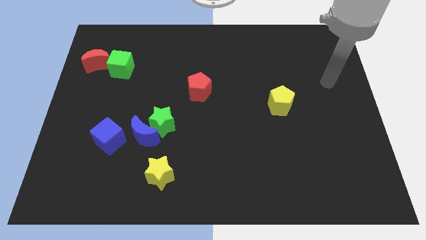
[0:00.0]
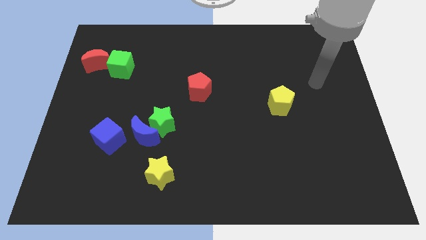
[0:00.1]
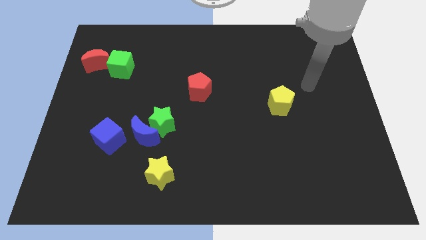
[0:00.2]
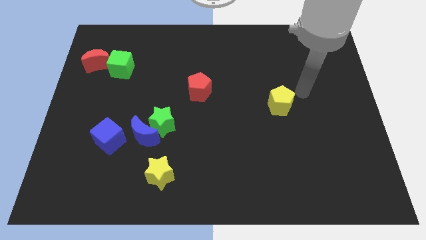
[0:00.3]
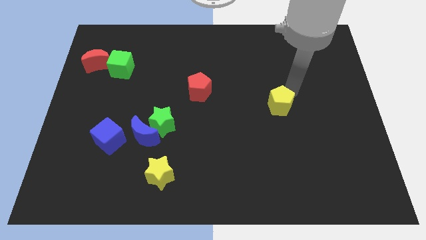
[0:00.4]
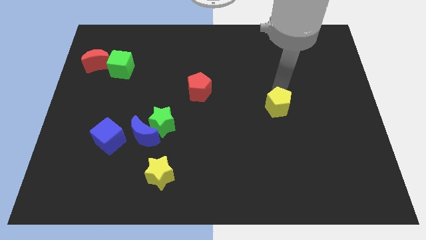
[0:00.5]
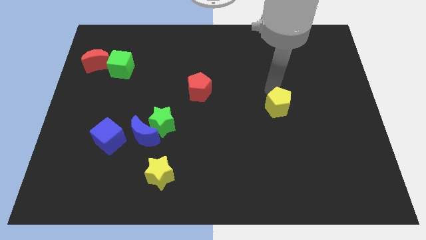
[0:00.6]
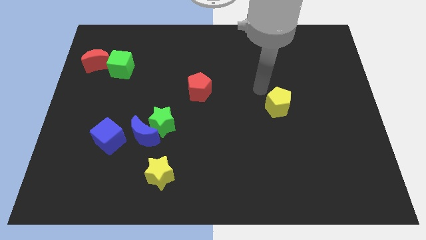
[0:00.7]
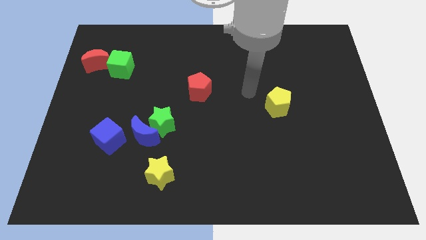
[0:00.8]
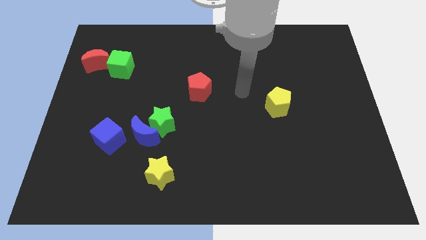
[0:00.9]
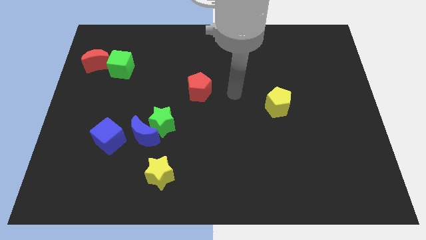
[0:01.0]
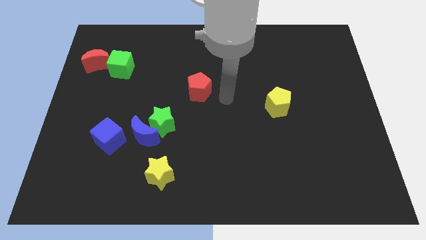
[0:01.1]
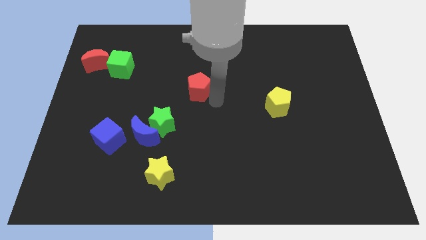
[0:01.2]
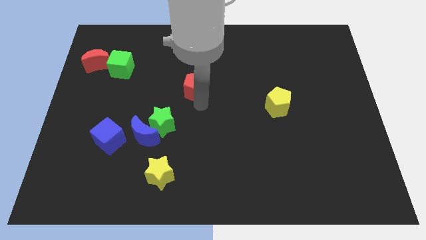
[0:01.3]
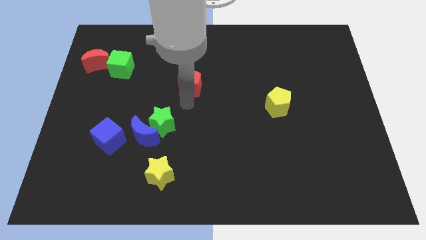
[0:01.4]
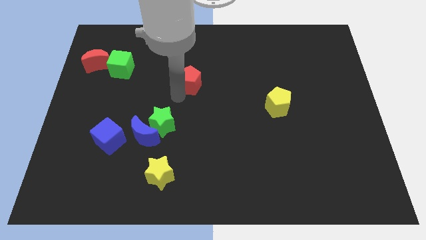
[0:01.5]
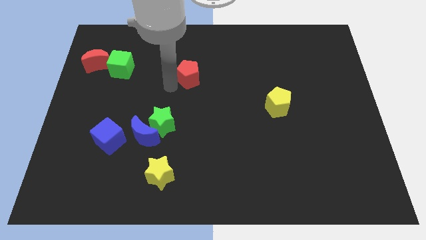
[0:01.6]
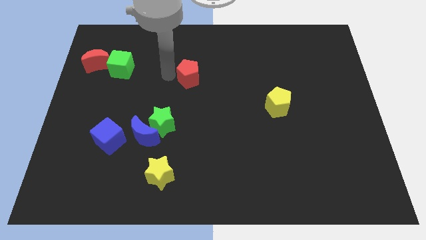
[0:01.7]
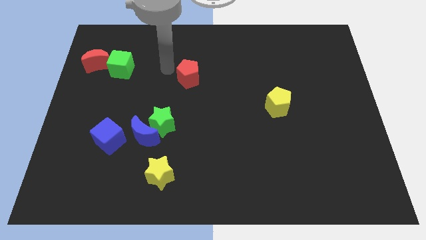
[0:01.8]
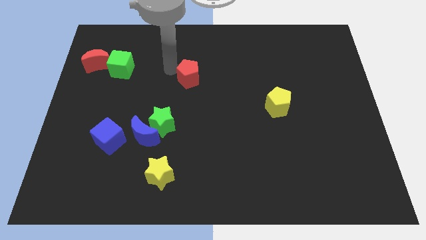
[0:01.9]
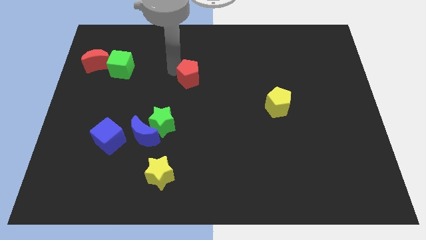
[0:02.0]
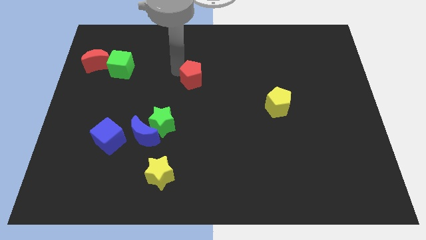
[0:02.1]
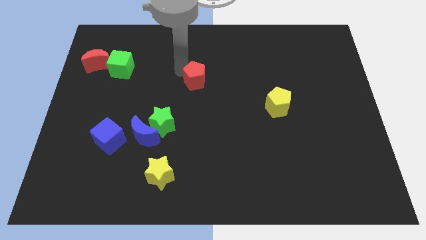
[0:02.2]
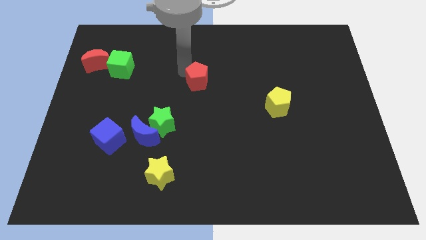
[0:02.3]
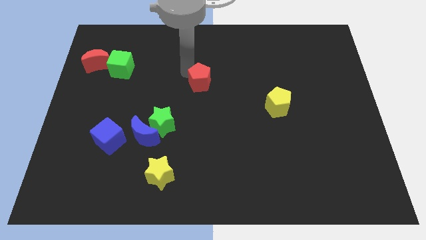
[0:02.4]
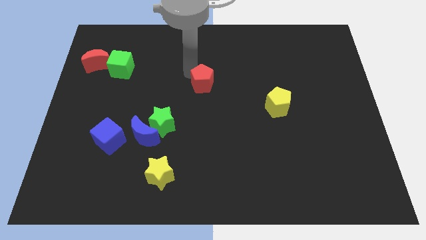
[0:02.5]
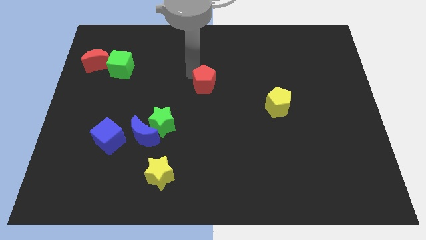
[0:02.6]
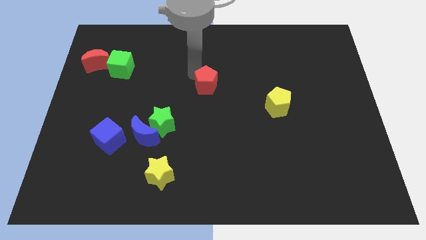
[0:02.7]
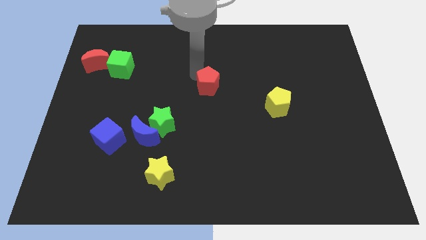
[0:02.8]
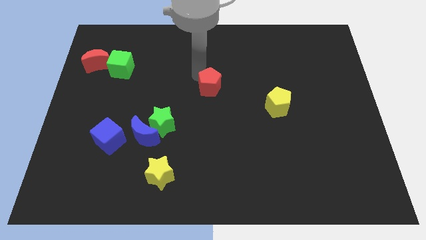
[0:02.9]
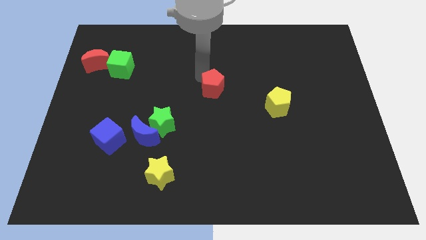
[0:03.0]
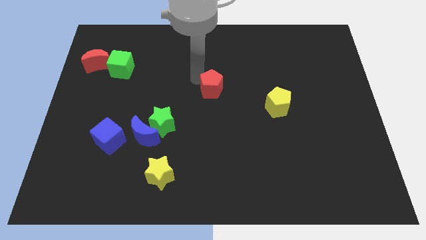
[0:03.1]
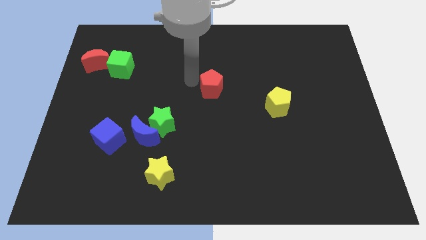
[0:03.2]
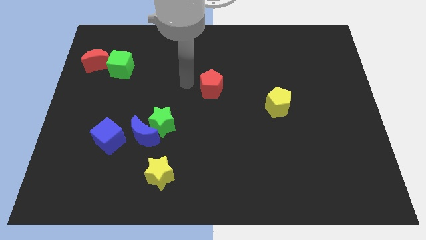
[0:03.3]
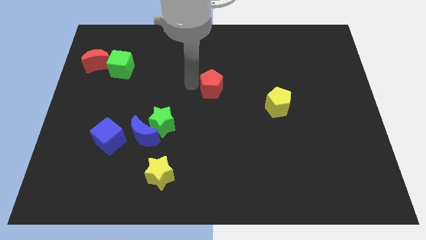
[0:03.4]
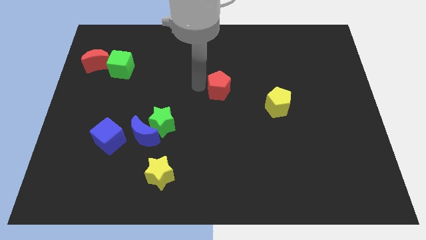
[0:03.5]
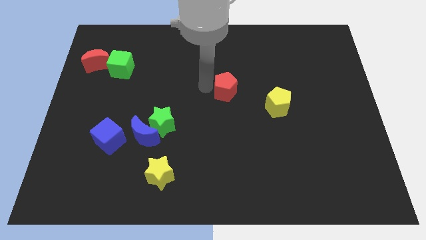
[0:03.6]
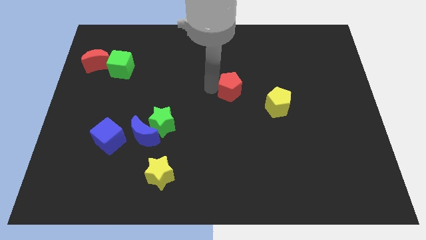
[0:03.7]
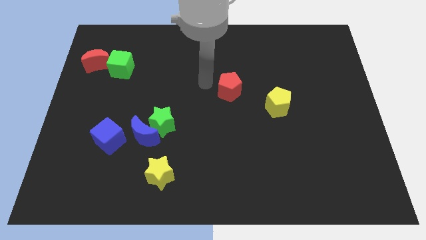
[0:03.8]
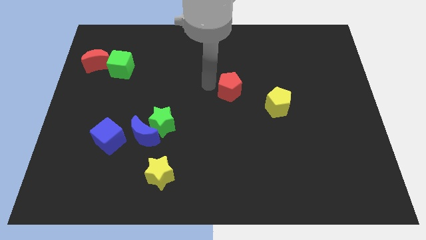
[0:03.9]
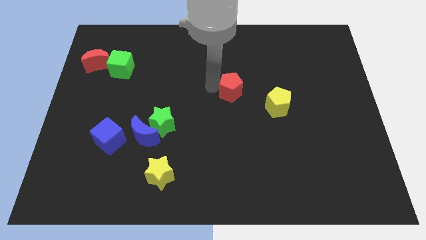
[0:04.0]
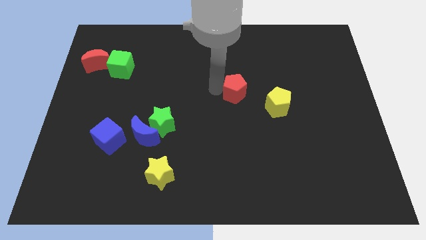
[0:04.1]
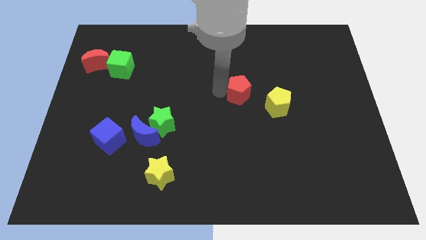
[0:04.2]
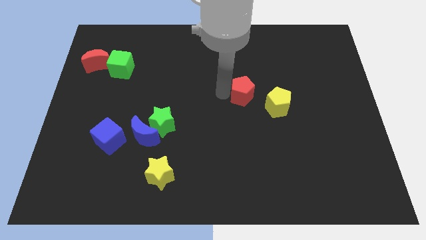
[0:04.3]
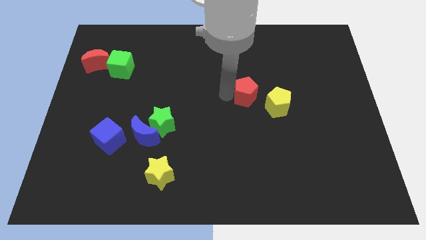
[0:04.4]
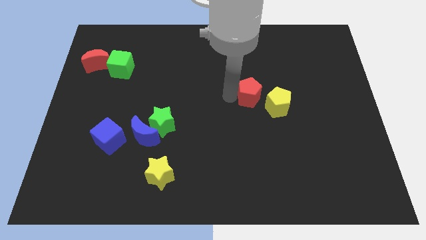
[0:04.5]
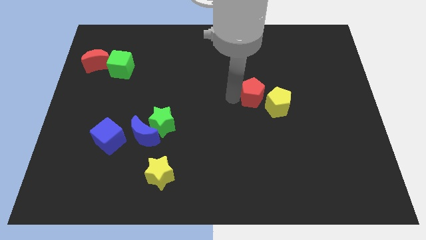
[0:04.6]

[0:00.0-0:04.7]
slide the red pentagon towards the yellow pentagon

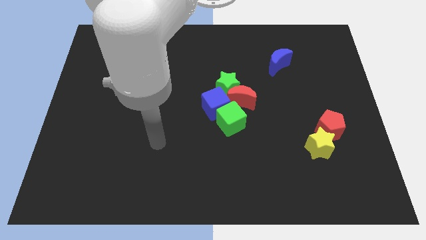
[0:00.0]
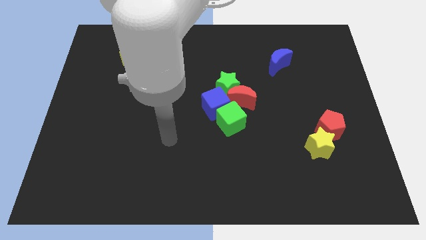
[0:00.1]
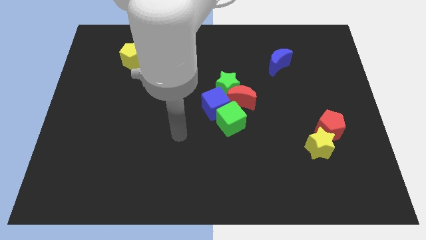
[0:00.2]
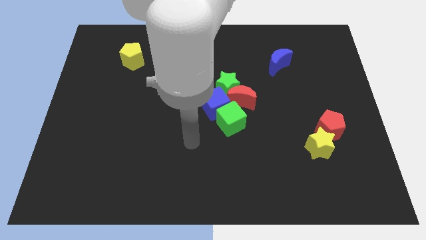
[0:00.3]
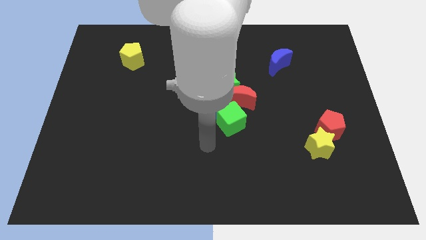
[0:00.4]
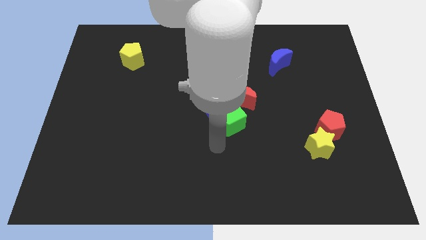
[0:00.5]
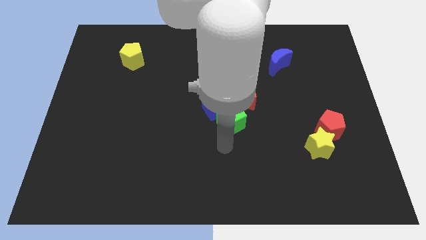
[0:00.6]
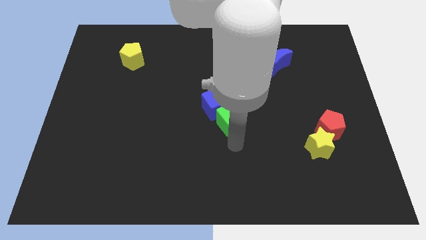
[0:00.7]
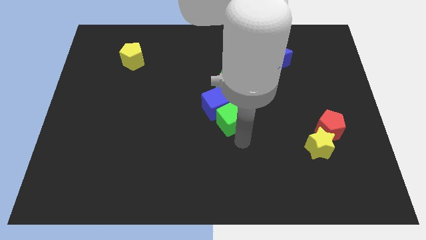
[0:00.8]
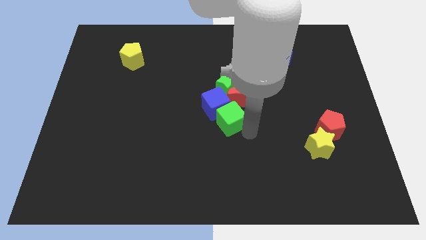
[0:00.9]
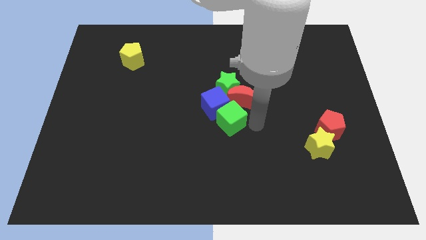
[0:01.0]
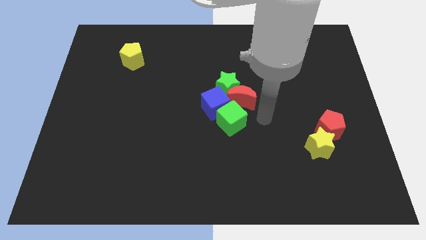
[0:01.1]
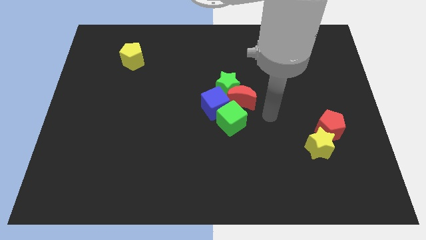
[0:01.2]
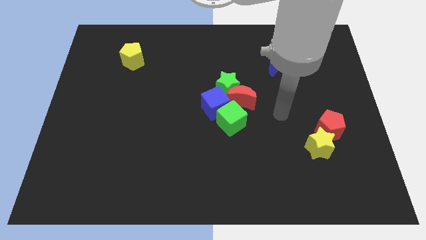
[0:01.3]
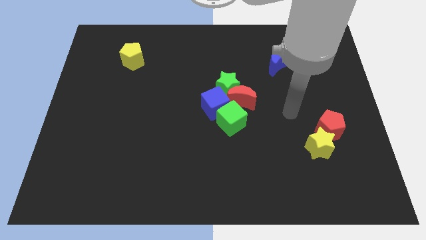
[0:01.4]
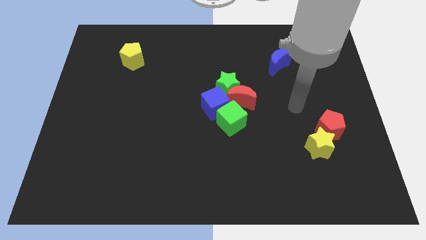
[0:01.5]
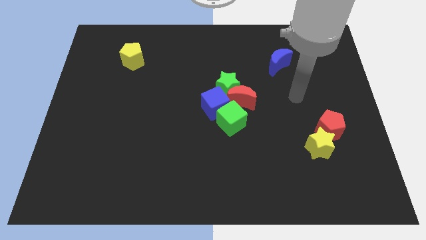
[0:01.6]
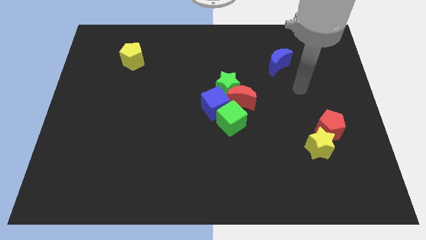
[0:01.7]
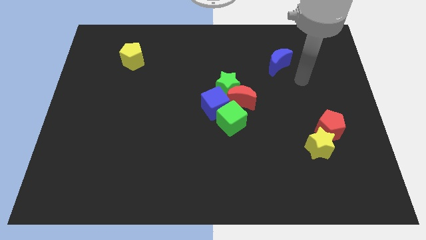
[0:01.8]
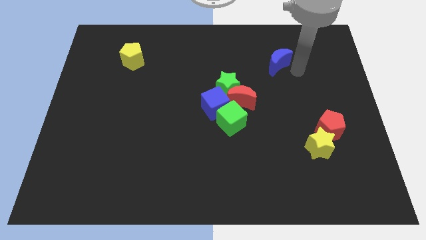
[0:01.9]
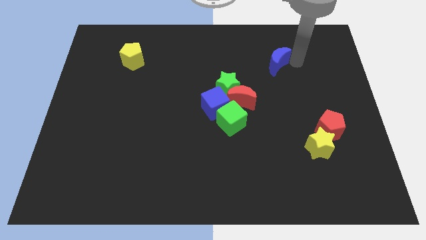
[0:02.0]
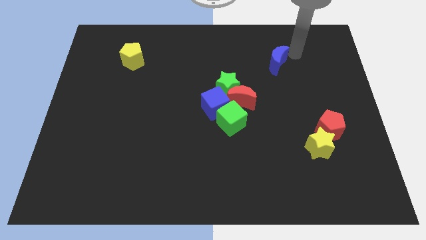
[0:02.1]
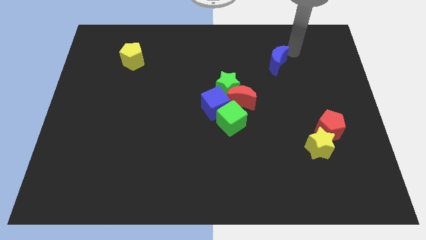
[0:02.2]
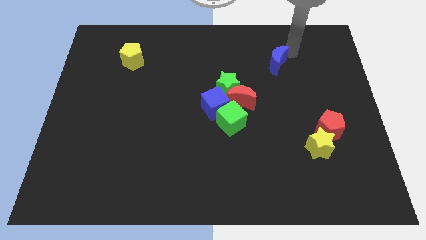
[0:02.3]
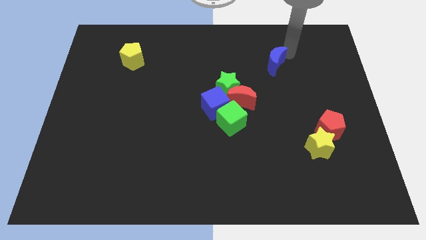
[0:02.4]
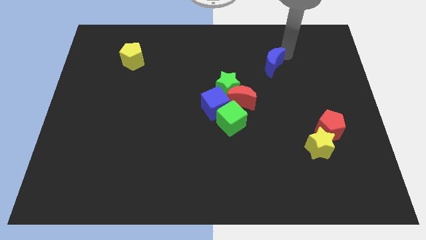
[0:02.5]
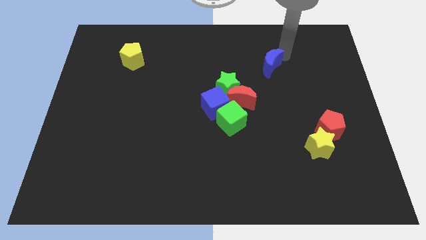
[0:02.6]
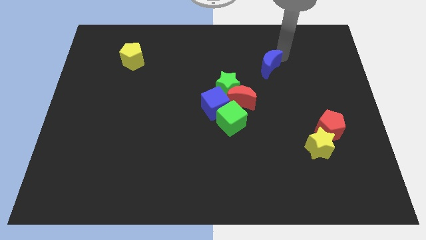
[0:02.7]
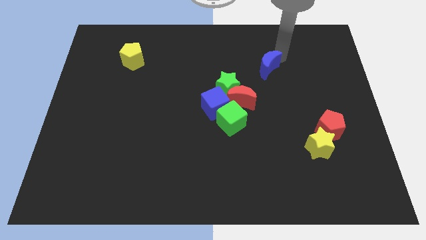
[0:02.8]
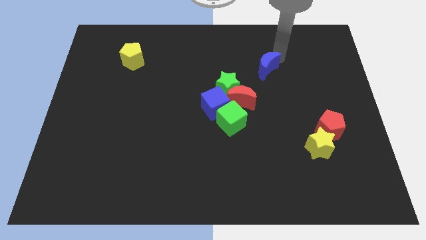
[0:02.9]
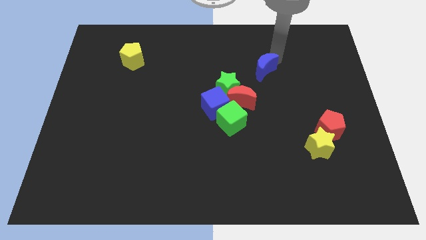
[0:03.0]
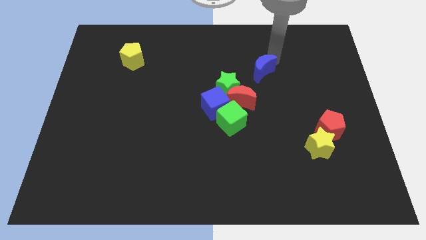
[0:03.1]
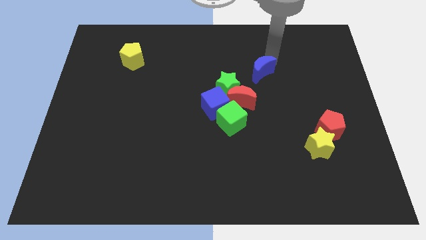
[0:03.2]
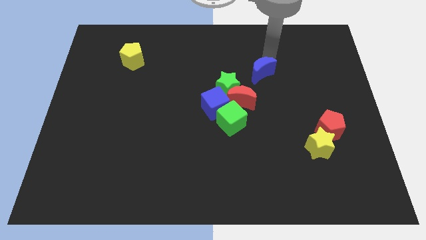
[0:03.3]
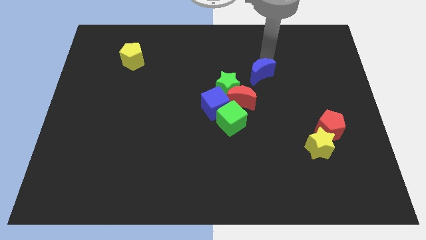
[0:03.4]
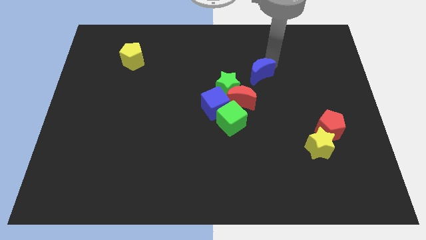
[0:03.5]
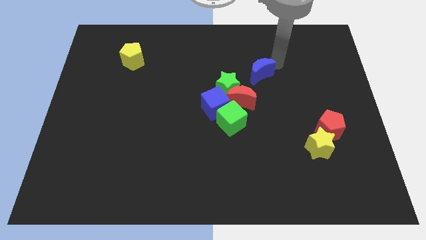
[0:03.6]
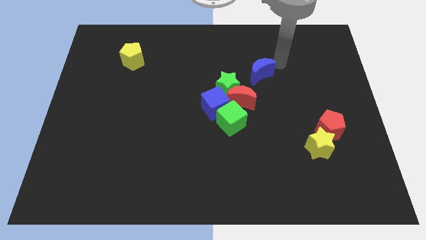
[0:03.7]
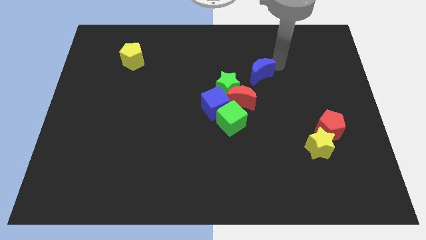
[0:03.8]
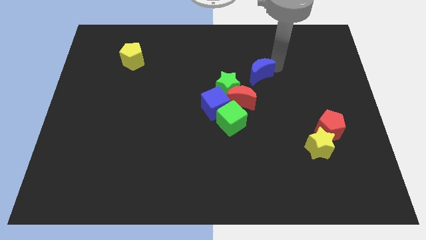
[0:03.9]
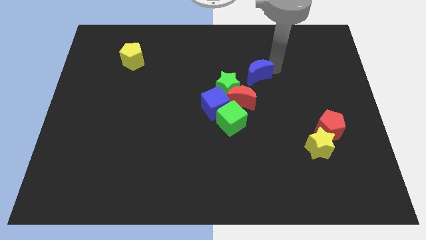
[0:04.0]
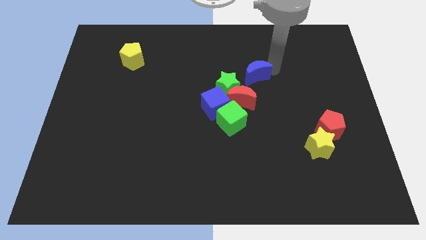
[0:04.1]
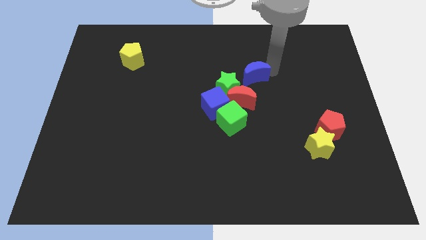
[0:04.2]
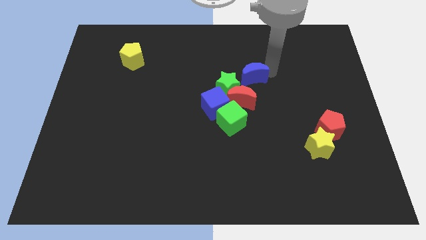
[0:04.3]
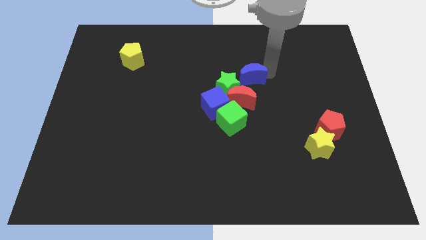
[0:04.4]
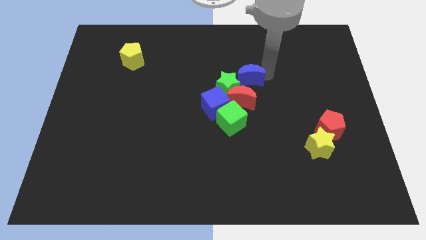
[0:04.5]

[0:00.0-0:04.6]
slide the blue moon to the green star
